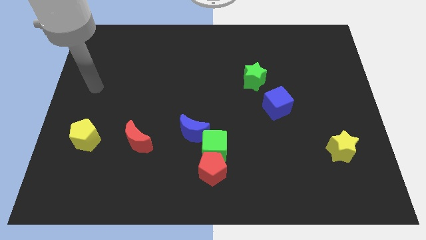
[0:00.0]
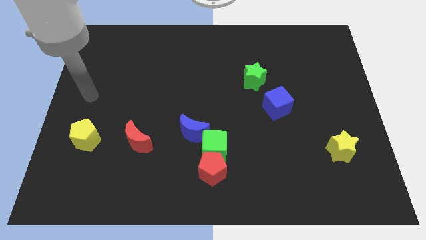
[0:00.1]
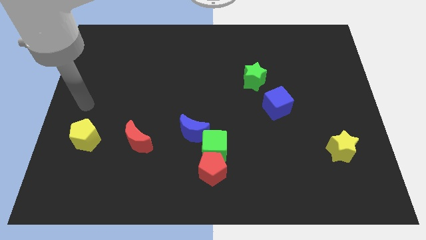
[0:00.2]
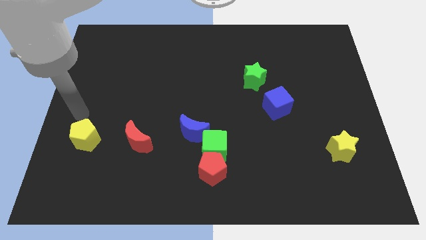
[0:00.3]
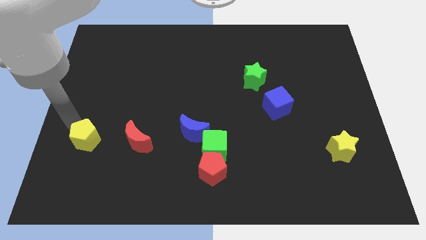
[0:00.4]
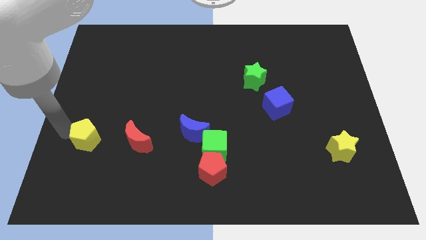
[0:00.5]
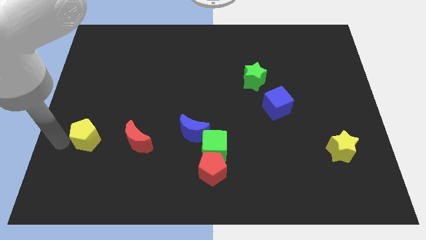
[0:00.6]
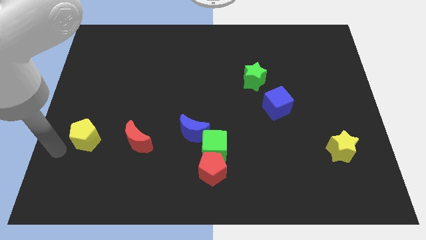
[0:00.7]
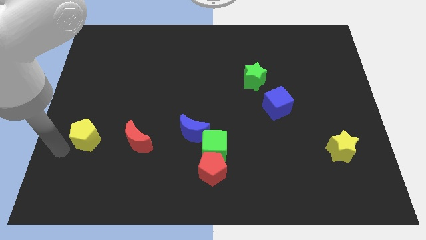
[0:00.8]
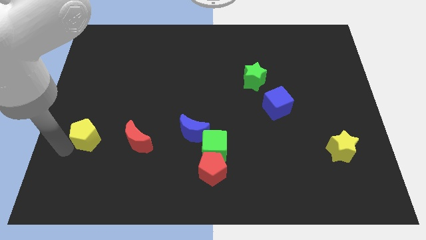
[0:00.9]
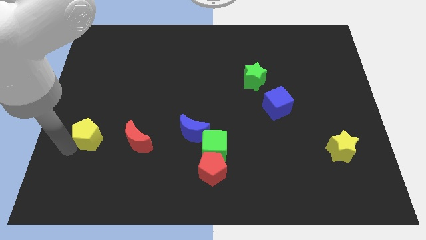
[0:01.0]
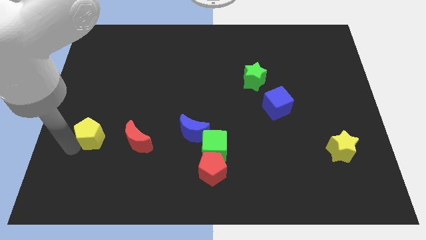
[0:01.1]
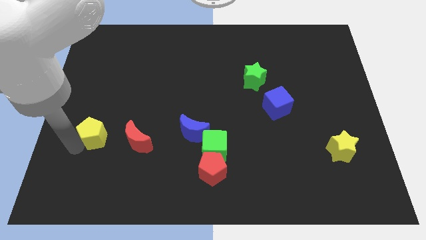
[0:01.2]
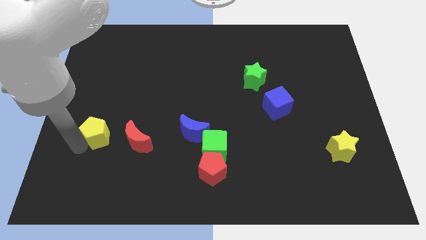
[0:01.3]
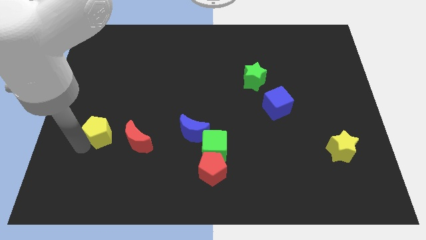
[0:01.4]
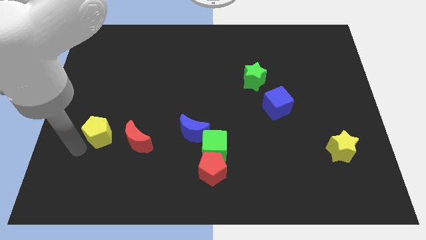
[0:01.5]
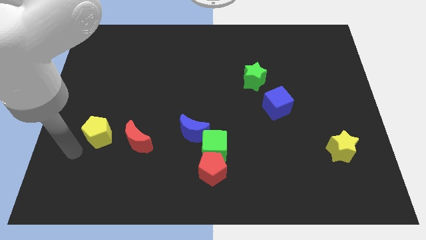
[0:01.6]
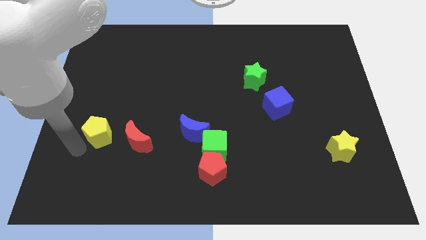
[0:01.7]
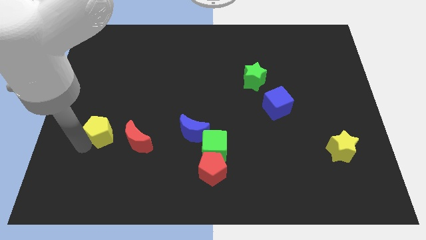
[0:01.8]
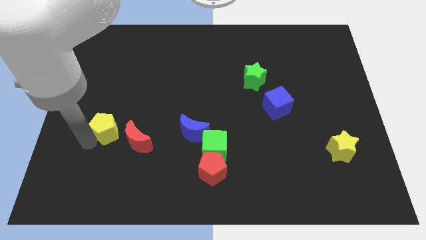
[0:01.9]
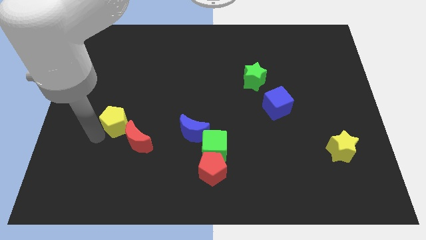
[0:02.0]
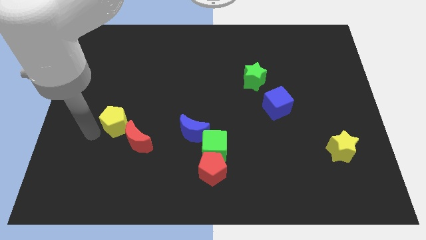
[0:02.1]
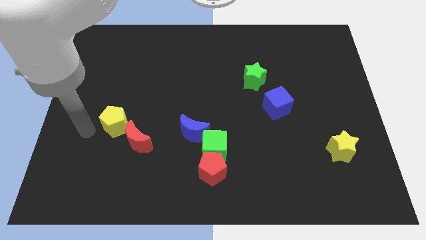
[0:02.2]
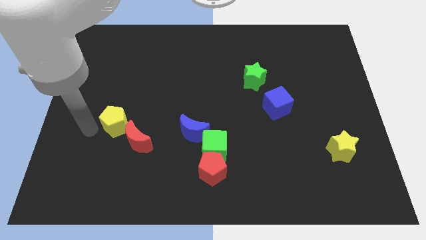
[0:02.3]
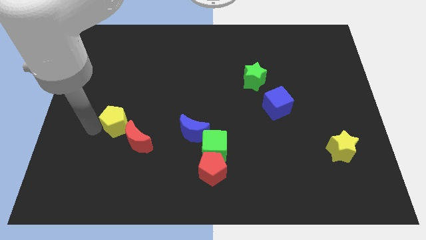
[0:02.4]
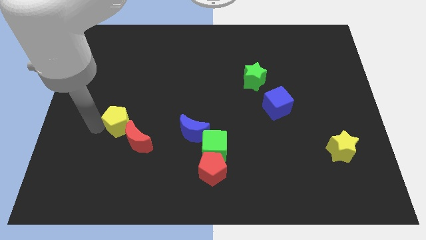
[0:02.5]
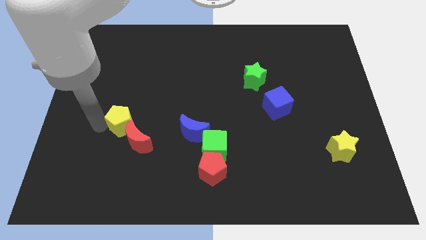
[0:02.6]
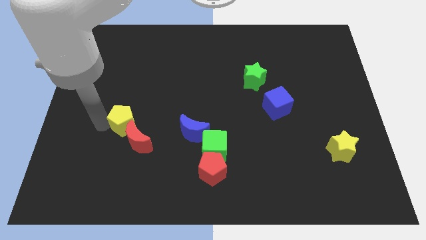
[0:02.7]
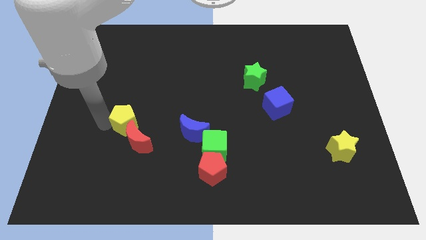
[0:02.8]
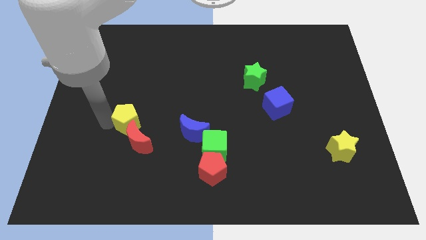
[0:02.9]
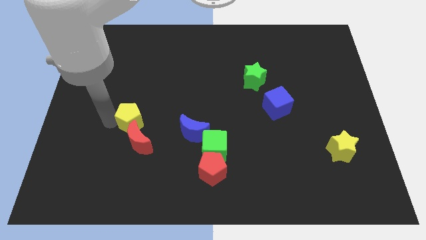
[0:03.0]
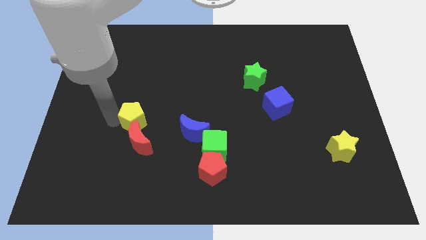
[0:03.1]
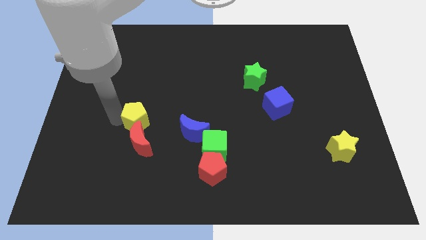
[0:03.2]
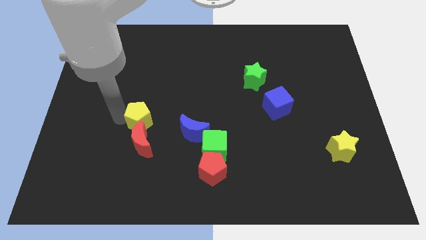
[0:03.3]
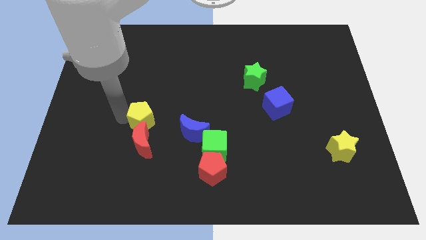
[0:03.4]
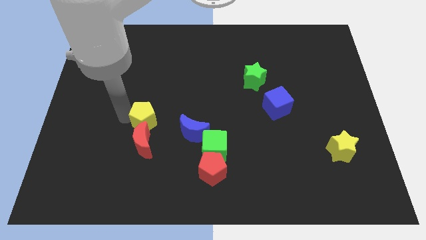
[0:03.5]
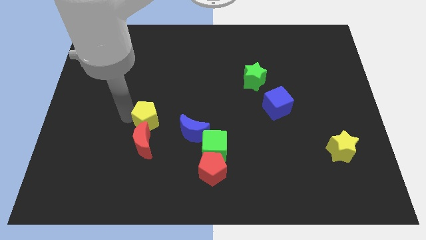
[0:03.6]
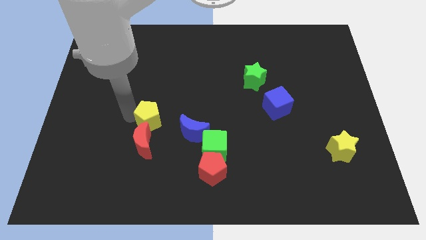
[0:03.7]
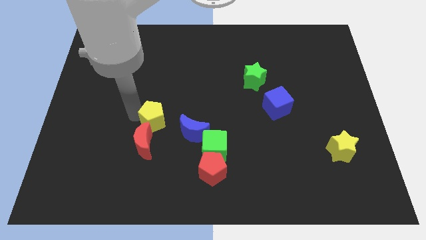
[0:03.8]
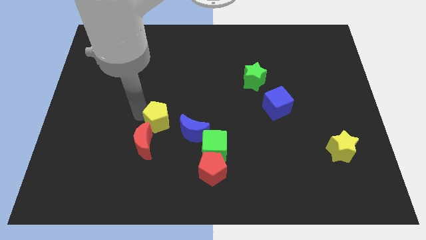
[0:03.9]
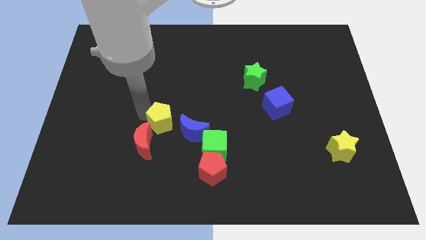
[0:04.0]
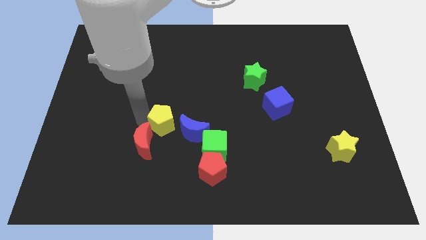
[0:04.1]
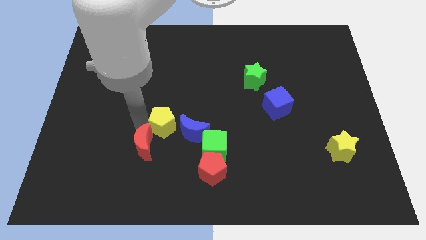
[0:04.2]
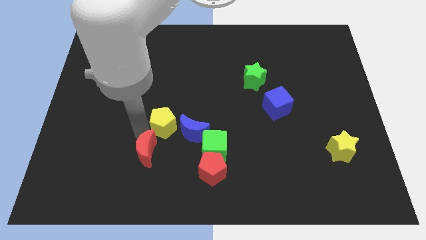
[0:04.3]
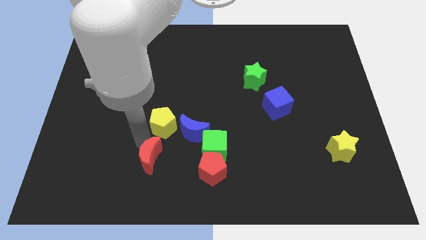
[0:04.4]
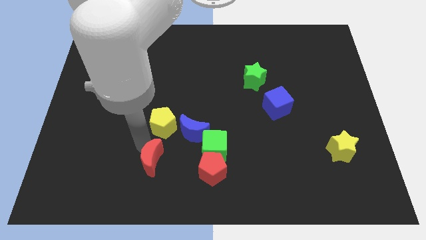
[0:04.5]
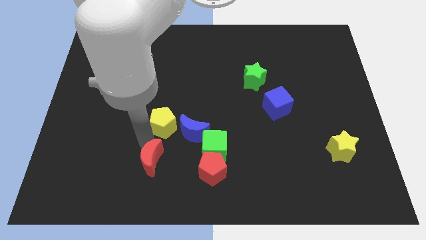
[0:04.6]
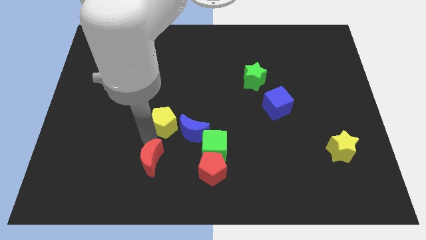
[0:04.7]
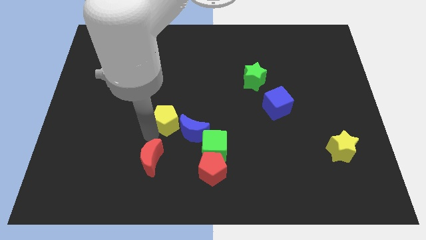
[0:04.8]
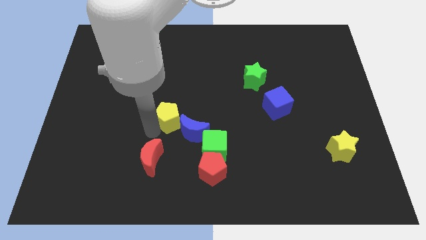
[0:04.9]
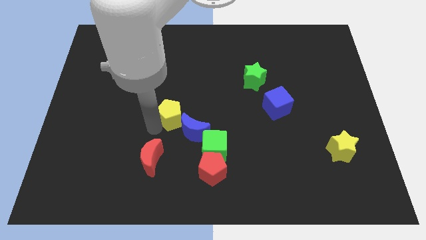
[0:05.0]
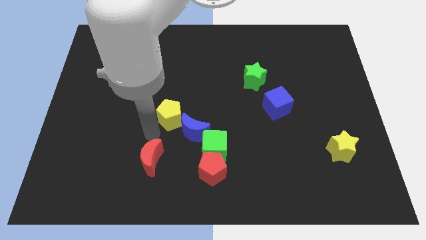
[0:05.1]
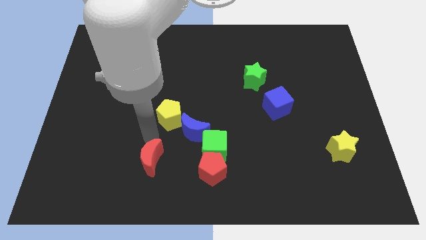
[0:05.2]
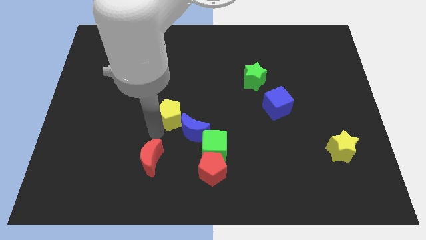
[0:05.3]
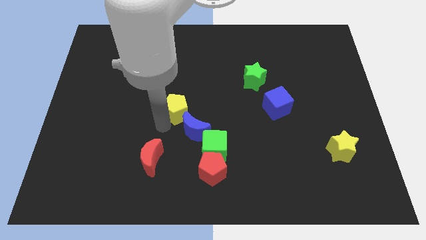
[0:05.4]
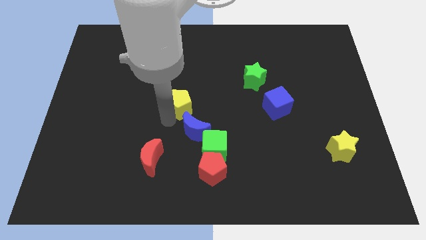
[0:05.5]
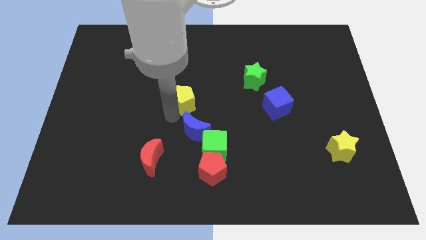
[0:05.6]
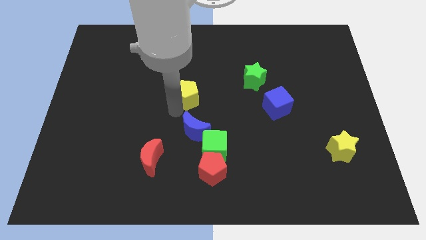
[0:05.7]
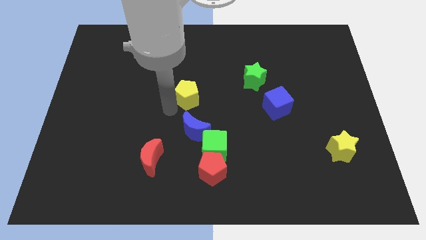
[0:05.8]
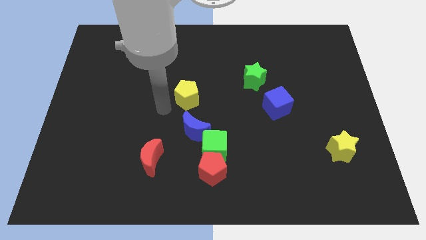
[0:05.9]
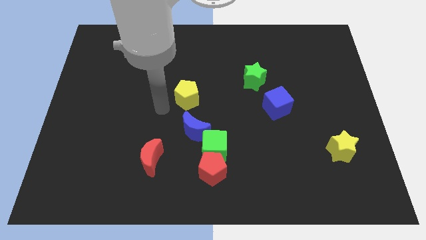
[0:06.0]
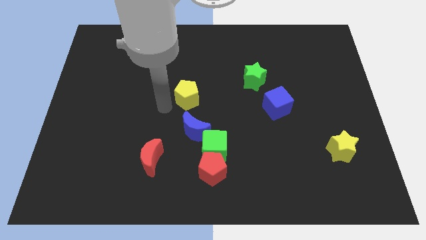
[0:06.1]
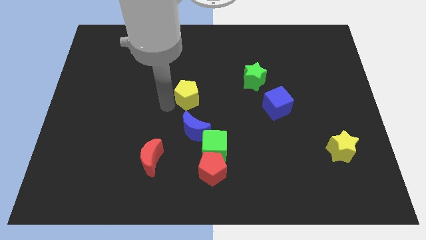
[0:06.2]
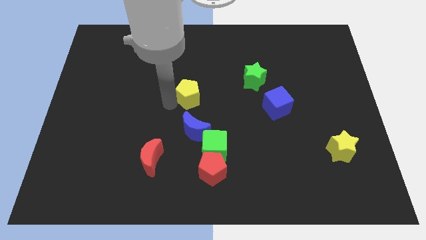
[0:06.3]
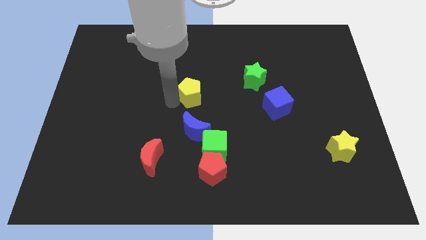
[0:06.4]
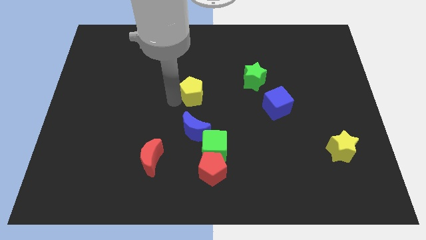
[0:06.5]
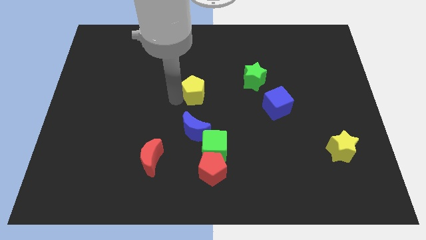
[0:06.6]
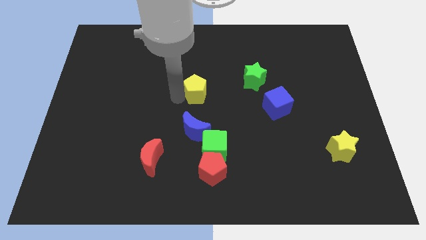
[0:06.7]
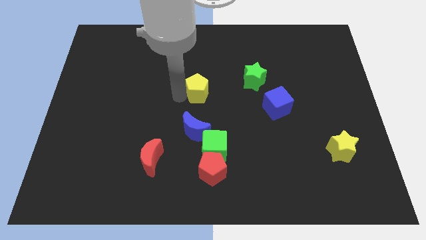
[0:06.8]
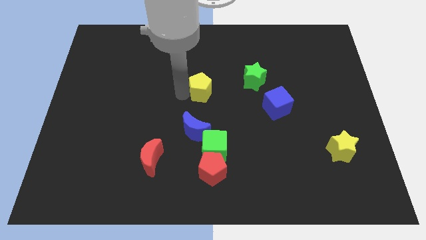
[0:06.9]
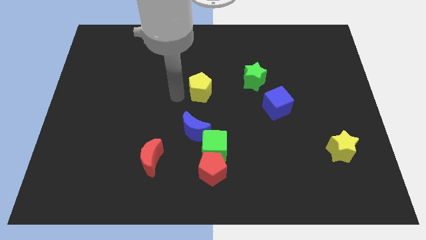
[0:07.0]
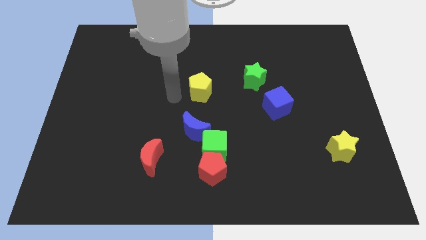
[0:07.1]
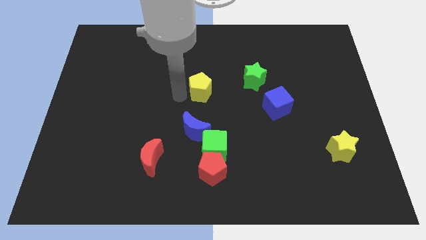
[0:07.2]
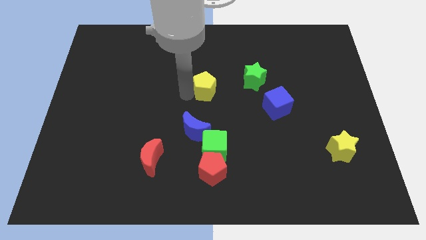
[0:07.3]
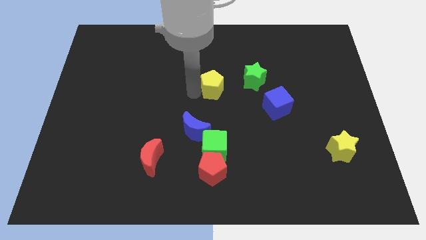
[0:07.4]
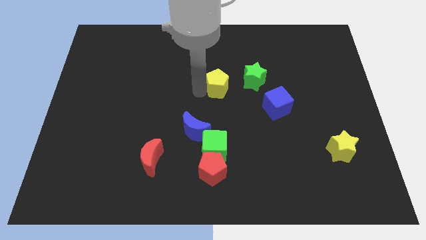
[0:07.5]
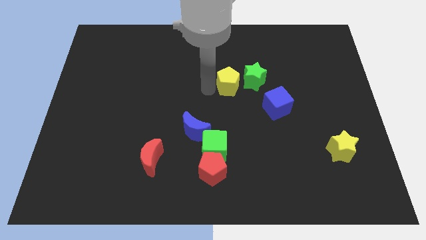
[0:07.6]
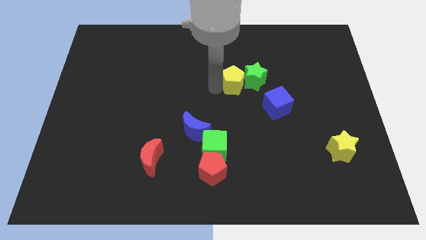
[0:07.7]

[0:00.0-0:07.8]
slide the yellow pentagon close to the green star

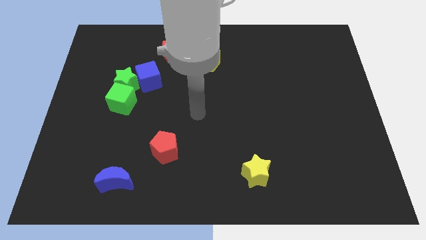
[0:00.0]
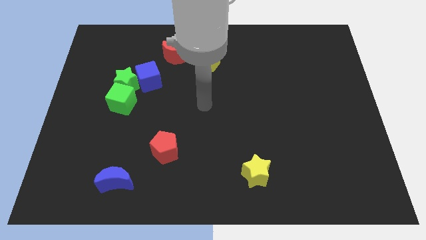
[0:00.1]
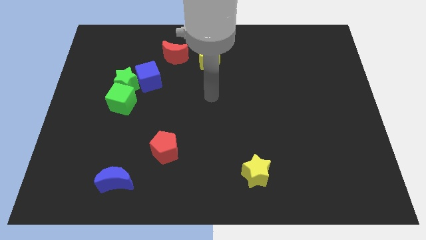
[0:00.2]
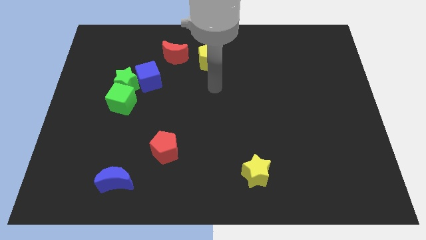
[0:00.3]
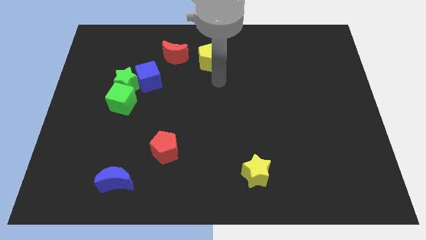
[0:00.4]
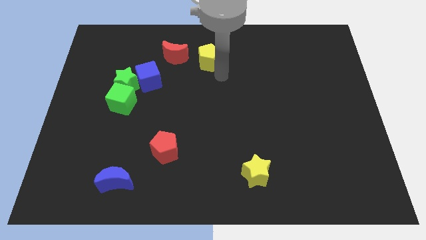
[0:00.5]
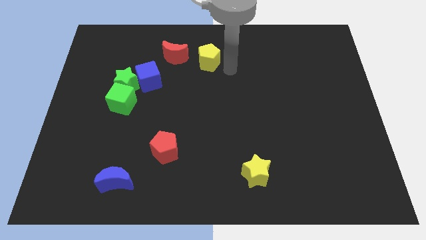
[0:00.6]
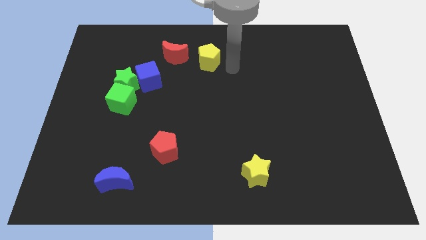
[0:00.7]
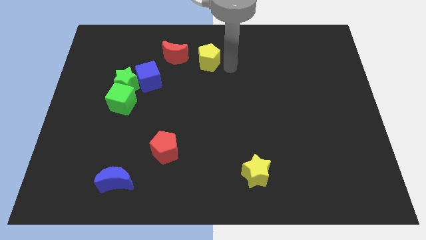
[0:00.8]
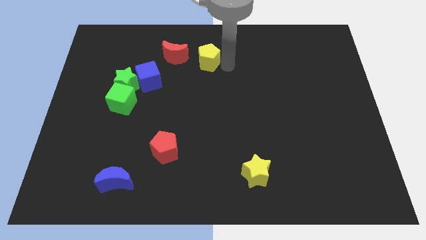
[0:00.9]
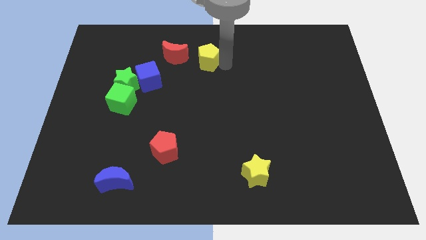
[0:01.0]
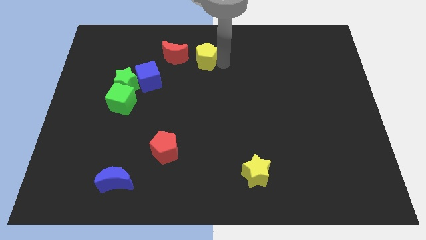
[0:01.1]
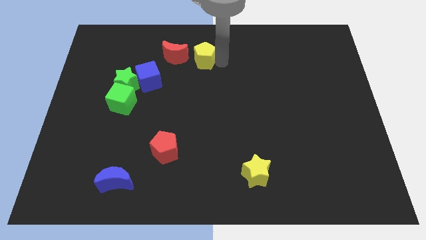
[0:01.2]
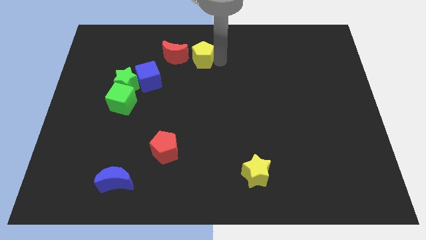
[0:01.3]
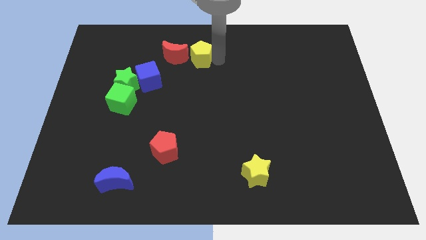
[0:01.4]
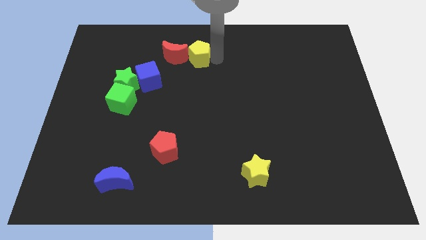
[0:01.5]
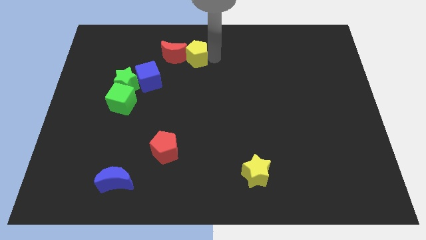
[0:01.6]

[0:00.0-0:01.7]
put the yellow pentagon to the red moon
